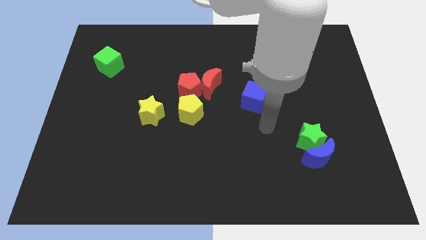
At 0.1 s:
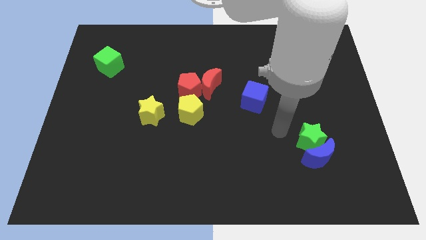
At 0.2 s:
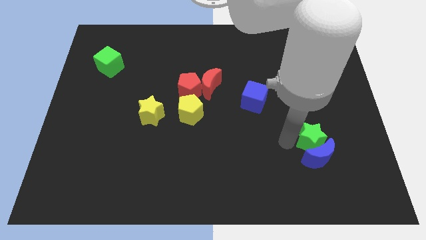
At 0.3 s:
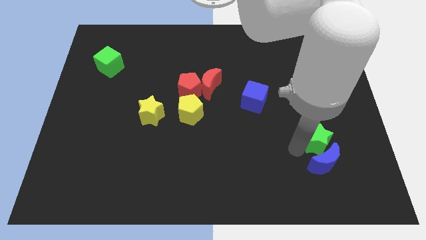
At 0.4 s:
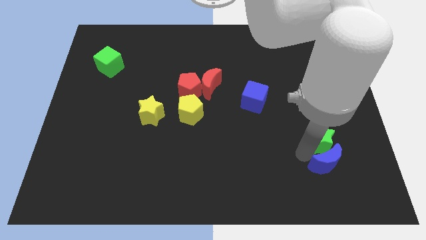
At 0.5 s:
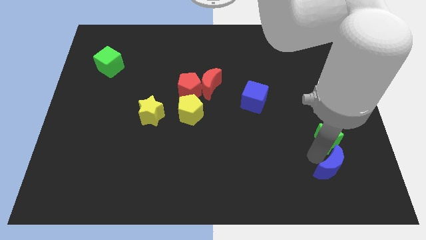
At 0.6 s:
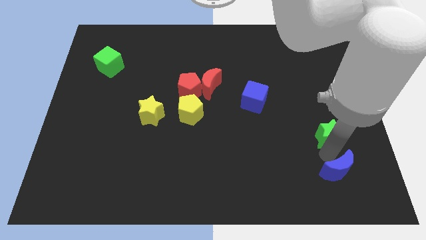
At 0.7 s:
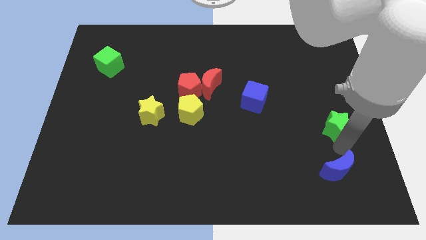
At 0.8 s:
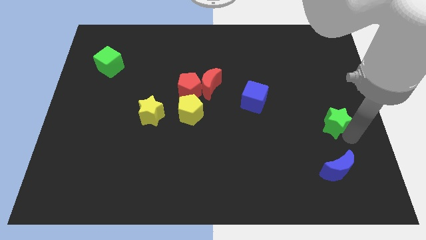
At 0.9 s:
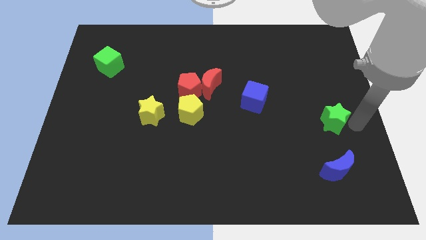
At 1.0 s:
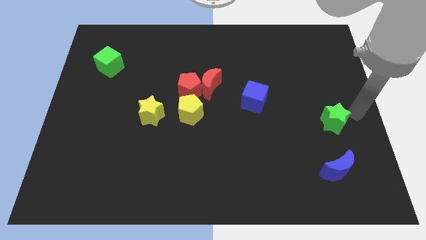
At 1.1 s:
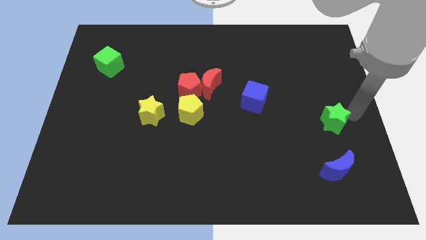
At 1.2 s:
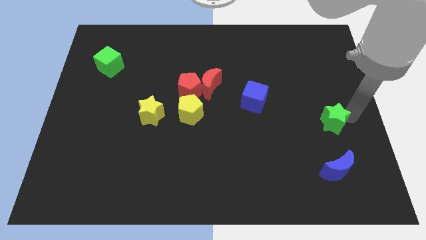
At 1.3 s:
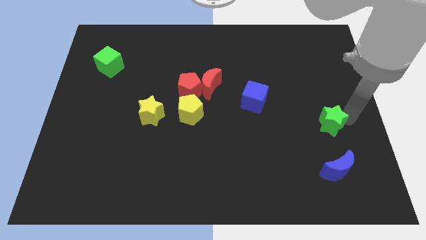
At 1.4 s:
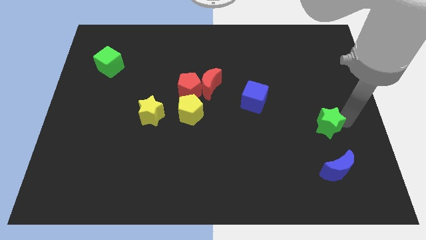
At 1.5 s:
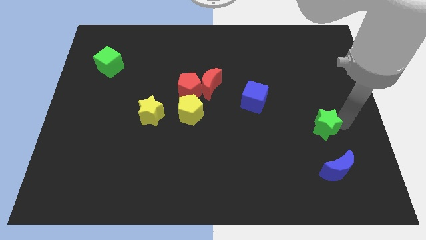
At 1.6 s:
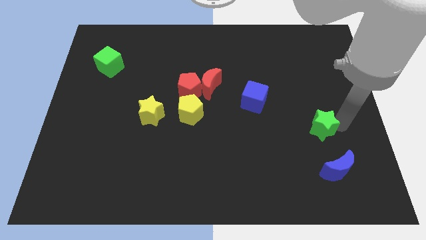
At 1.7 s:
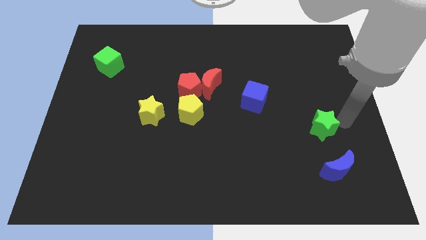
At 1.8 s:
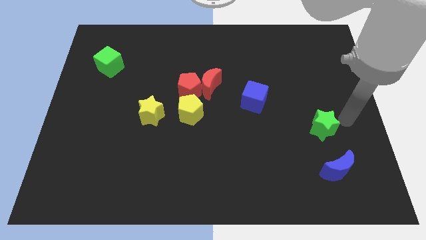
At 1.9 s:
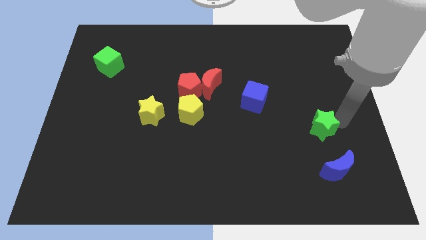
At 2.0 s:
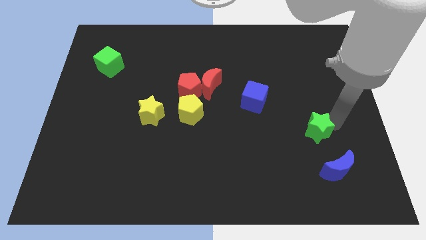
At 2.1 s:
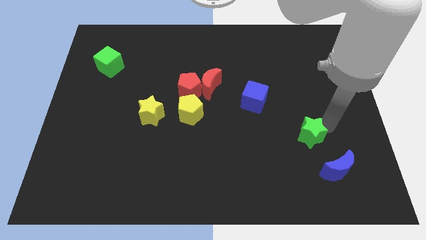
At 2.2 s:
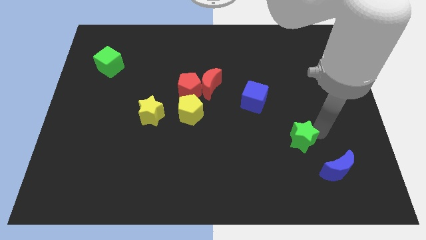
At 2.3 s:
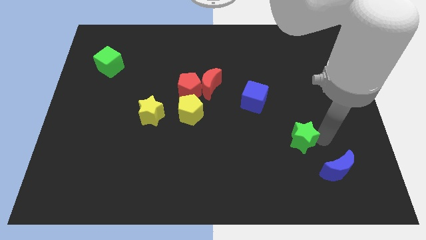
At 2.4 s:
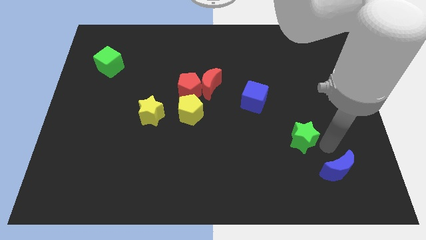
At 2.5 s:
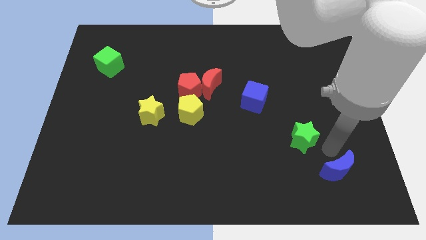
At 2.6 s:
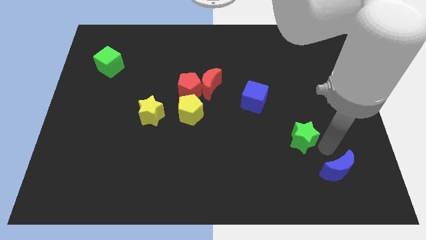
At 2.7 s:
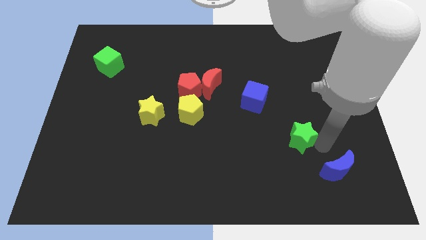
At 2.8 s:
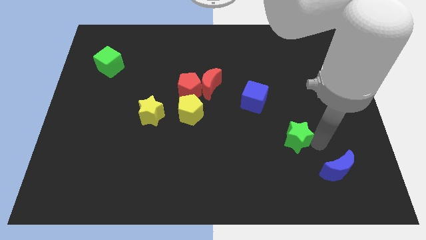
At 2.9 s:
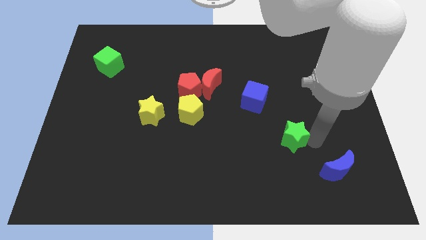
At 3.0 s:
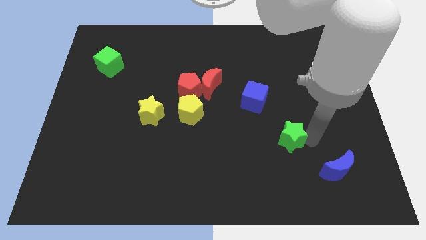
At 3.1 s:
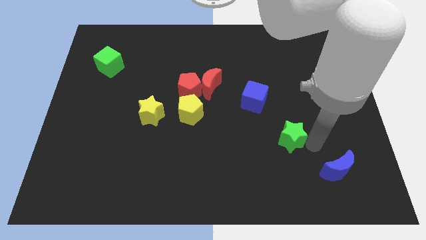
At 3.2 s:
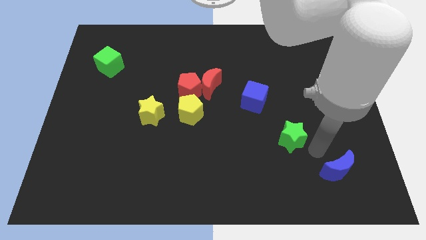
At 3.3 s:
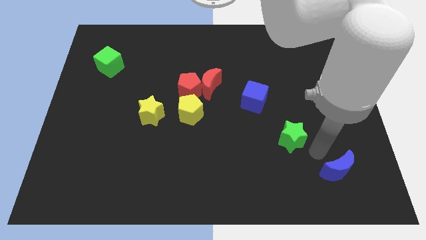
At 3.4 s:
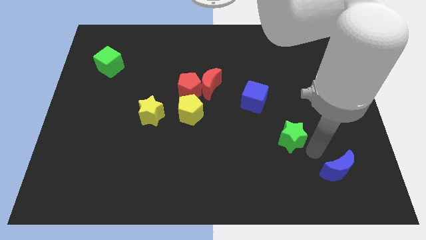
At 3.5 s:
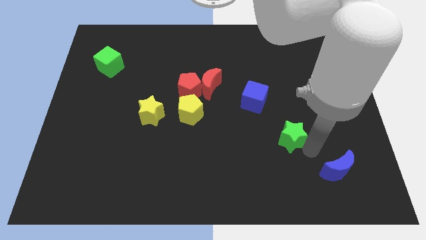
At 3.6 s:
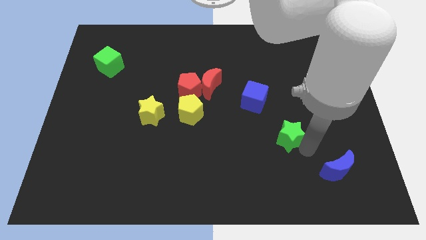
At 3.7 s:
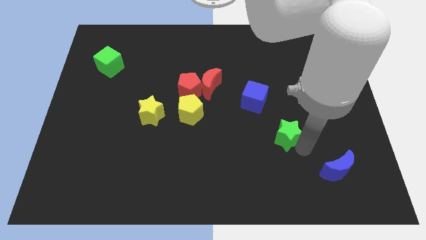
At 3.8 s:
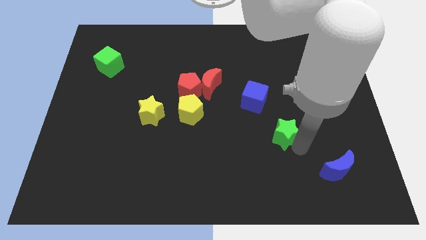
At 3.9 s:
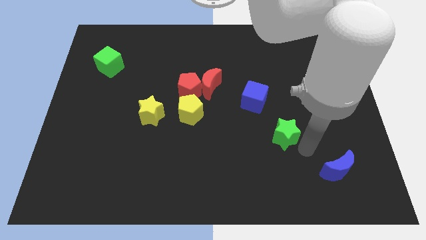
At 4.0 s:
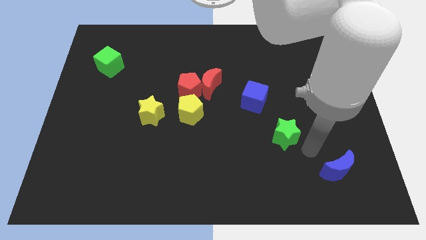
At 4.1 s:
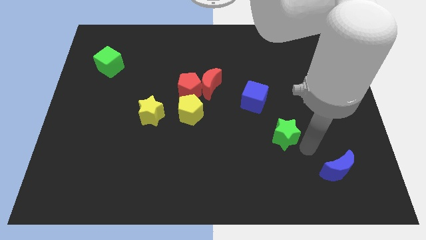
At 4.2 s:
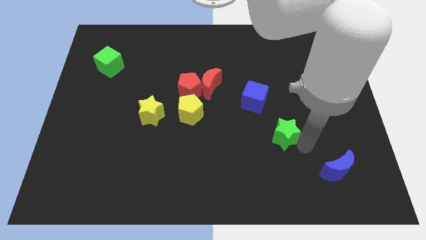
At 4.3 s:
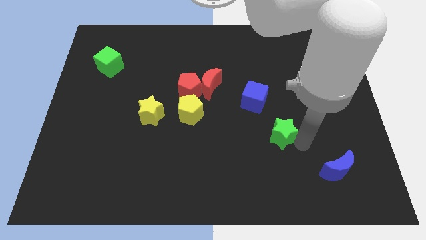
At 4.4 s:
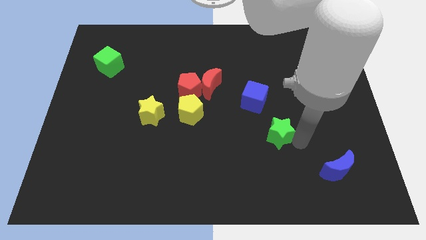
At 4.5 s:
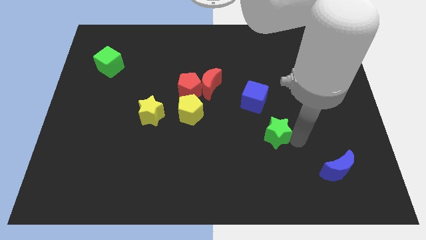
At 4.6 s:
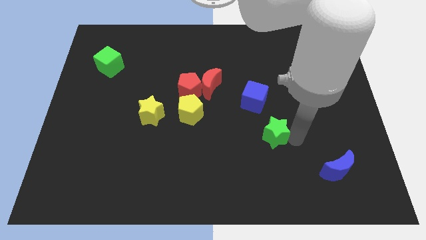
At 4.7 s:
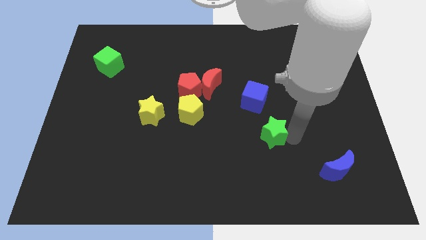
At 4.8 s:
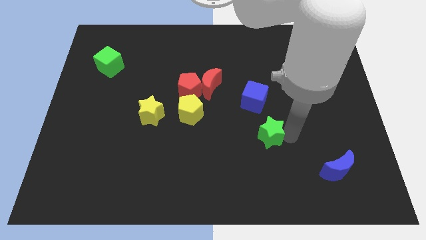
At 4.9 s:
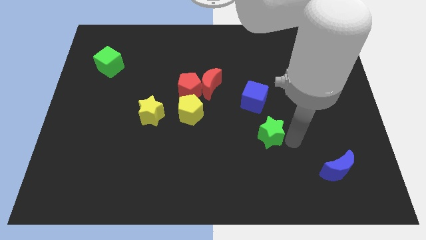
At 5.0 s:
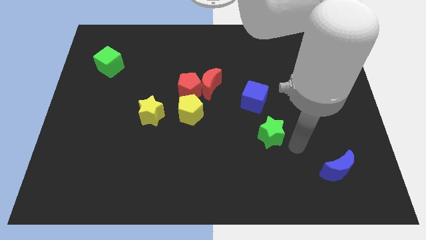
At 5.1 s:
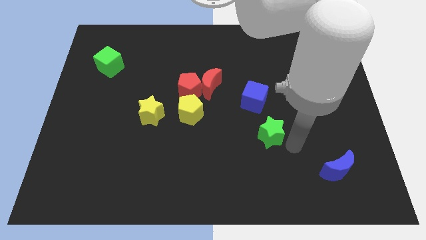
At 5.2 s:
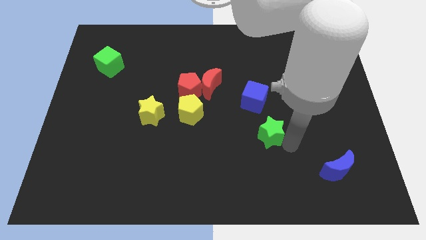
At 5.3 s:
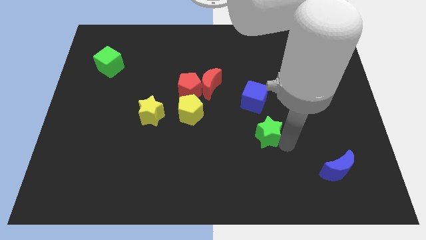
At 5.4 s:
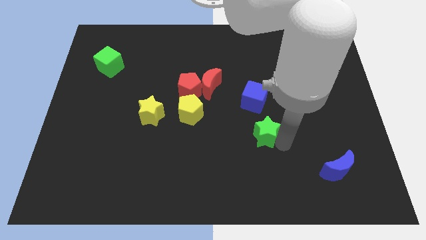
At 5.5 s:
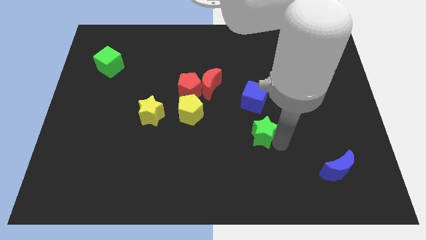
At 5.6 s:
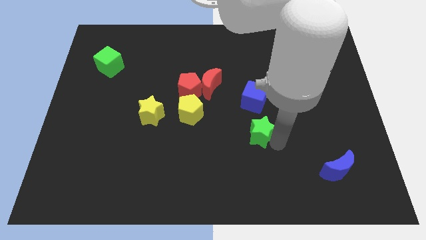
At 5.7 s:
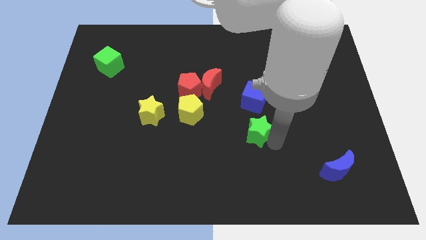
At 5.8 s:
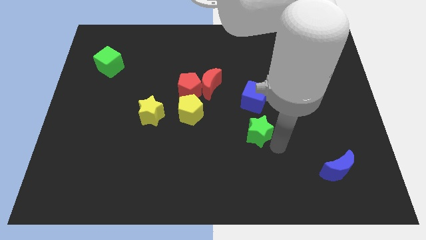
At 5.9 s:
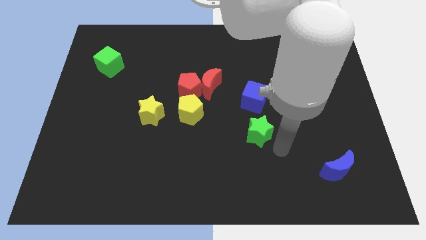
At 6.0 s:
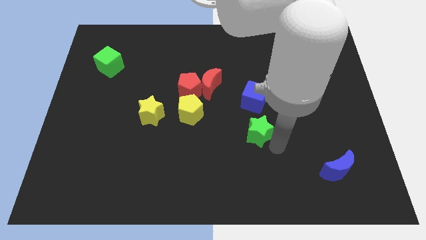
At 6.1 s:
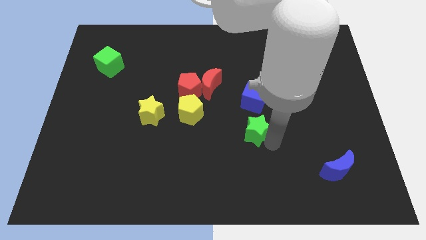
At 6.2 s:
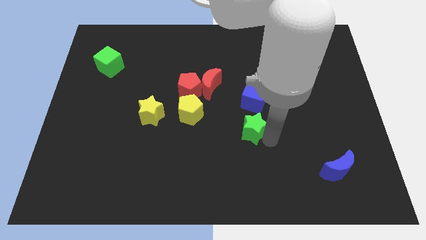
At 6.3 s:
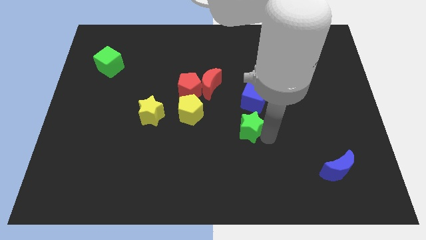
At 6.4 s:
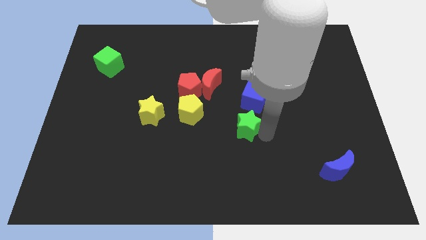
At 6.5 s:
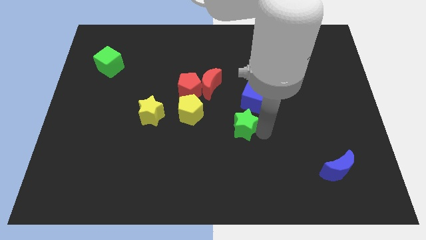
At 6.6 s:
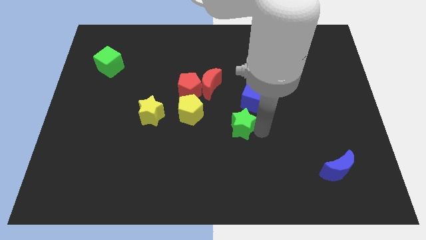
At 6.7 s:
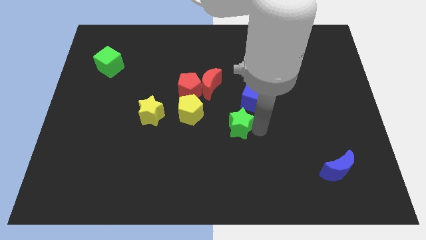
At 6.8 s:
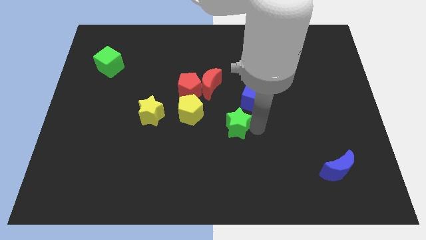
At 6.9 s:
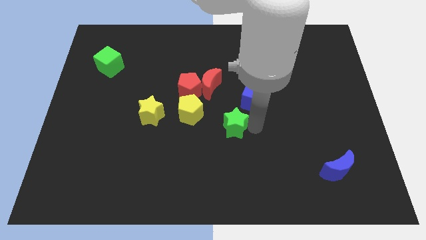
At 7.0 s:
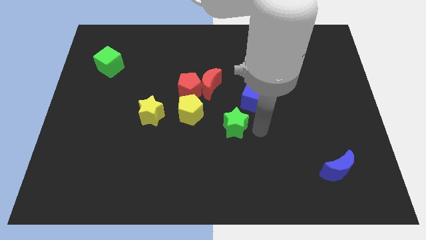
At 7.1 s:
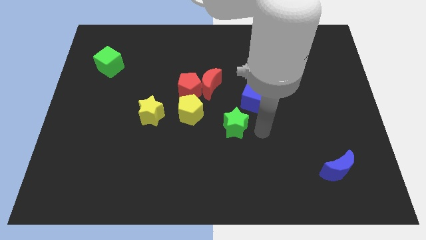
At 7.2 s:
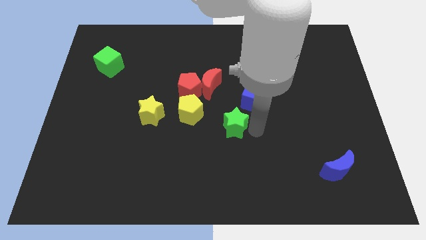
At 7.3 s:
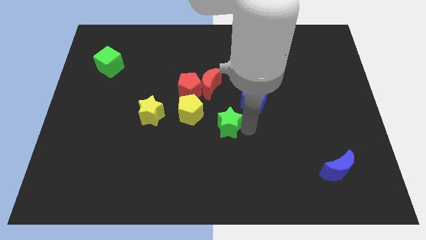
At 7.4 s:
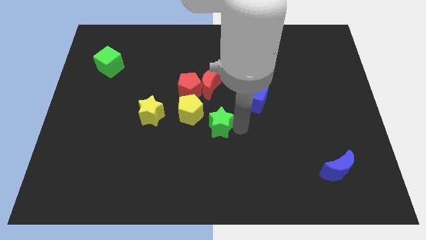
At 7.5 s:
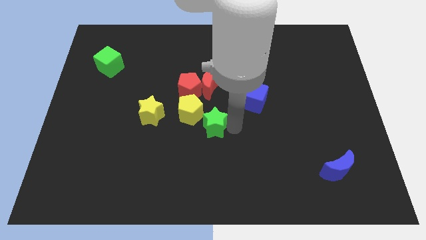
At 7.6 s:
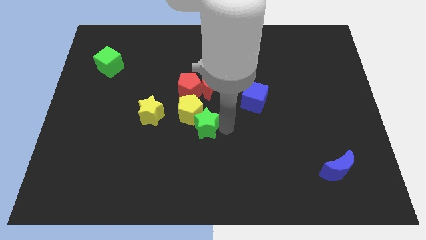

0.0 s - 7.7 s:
slide the green star to the yellow pentagon
